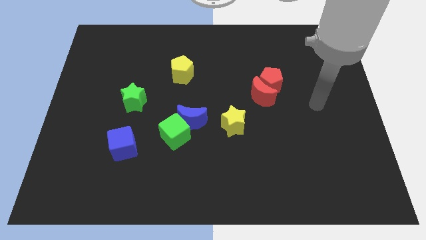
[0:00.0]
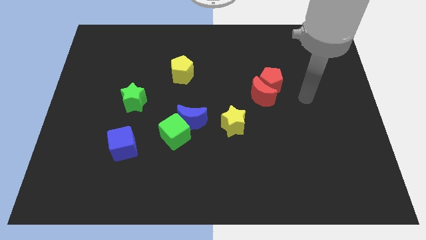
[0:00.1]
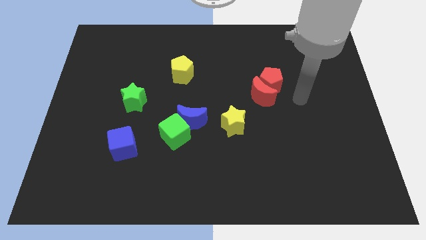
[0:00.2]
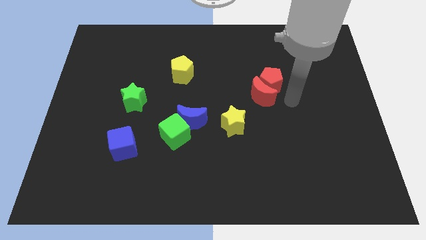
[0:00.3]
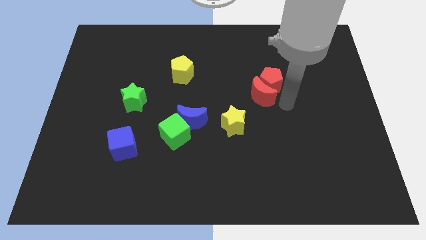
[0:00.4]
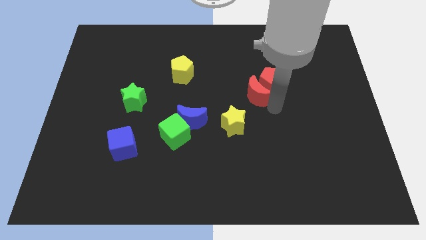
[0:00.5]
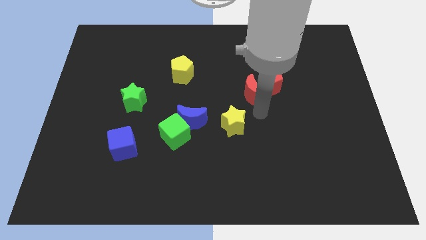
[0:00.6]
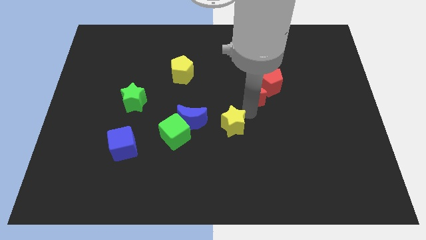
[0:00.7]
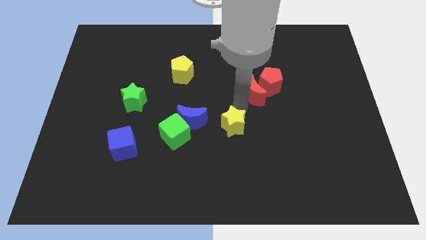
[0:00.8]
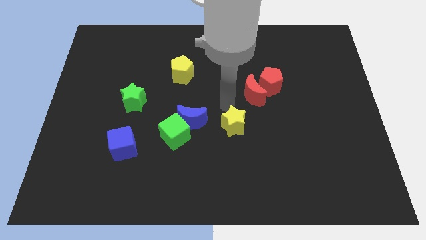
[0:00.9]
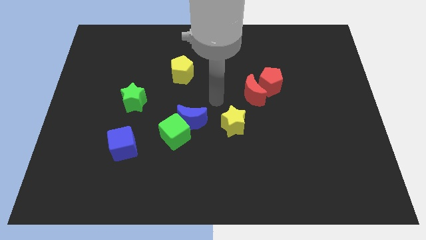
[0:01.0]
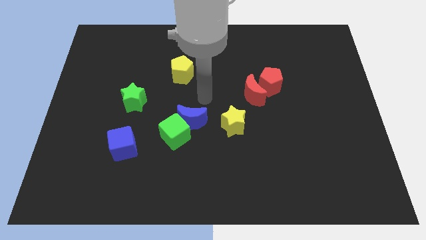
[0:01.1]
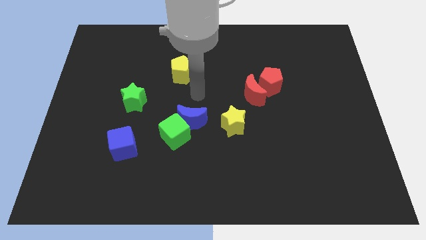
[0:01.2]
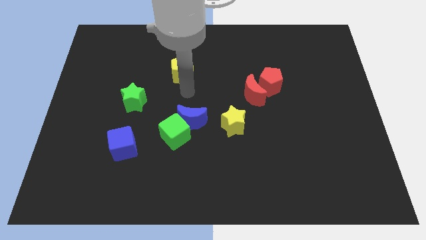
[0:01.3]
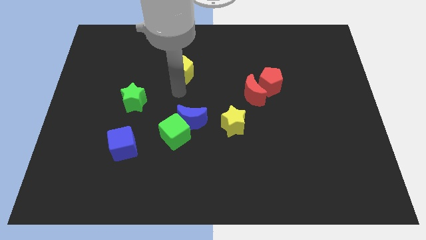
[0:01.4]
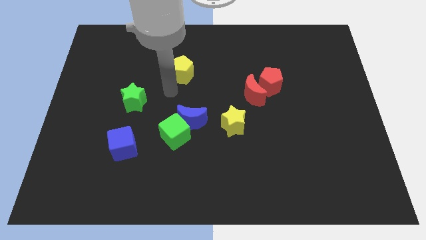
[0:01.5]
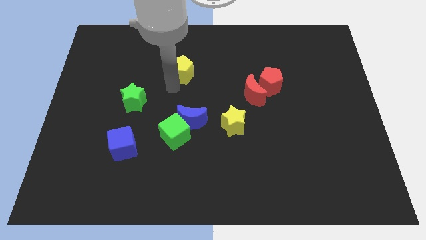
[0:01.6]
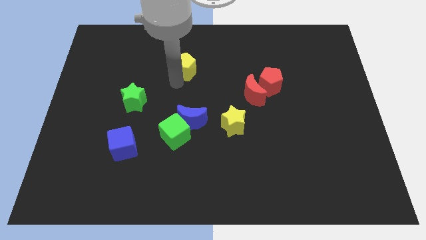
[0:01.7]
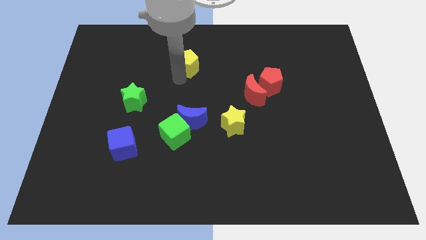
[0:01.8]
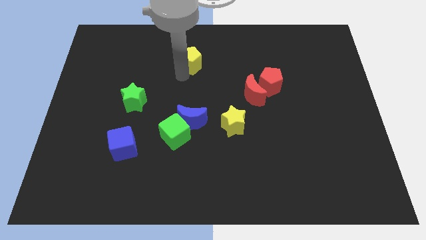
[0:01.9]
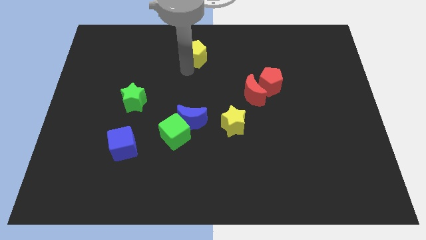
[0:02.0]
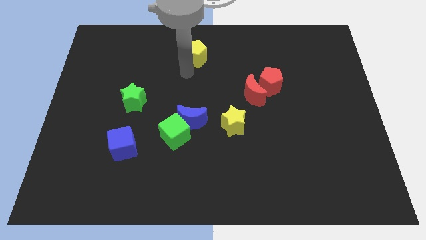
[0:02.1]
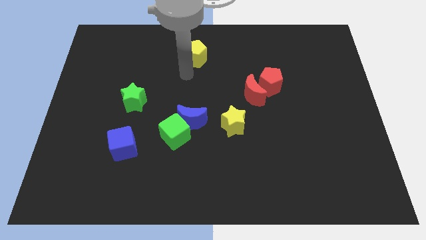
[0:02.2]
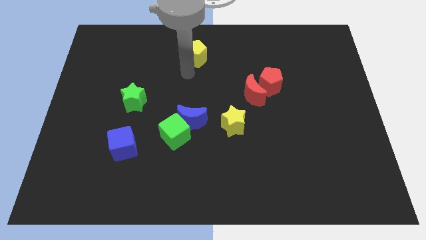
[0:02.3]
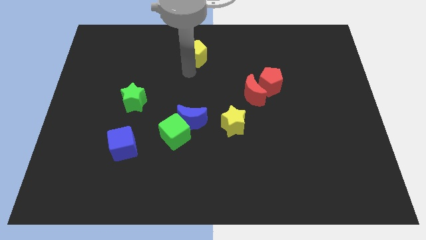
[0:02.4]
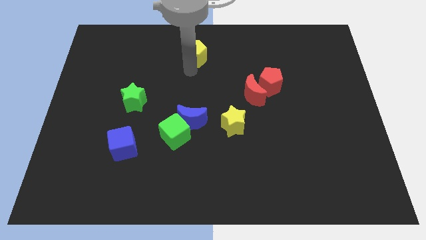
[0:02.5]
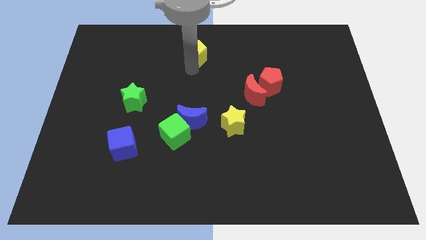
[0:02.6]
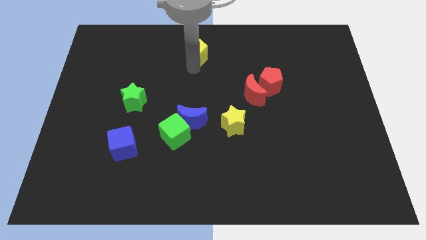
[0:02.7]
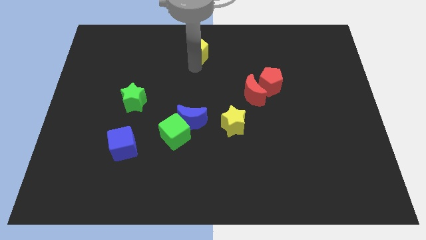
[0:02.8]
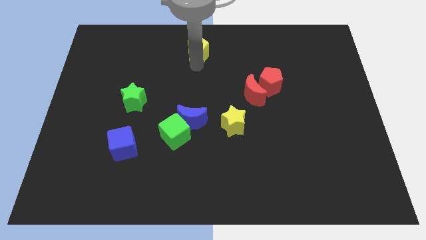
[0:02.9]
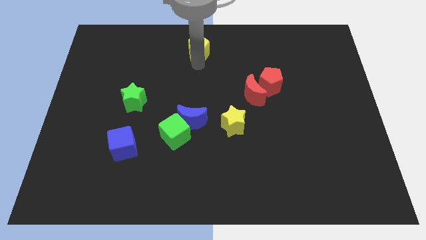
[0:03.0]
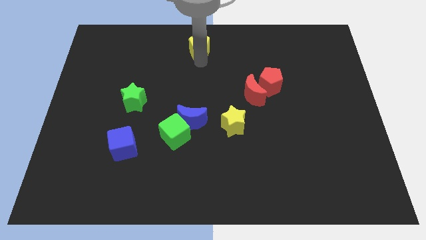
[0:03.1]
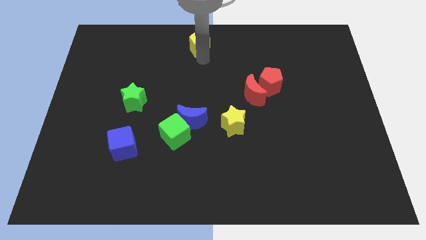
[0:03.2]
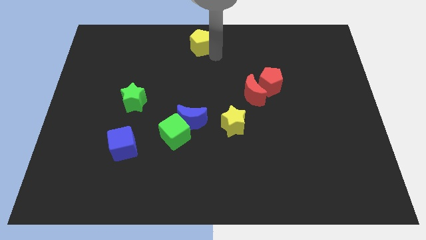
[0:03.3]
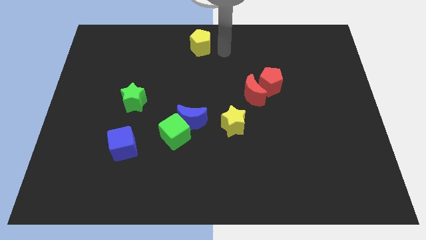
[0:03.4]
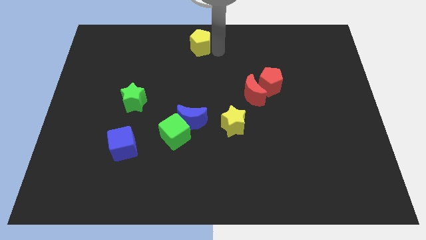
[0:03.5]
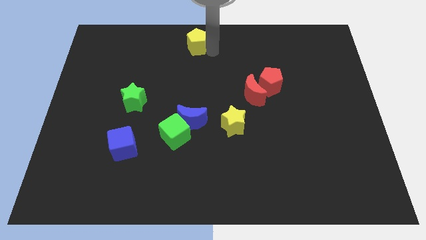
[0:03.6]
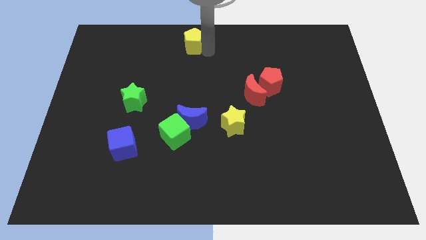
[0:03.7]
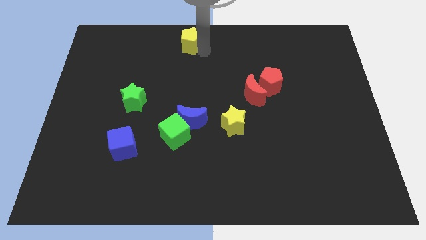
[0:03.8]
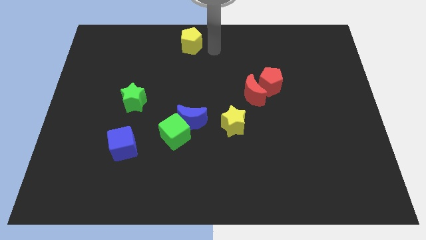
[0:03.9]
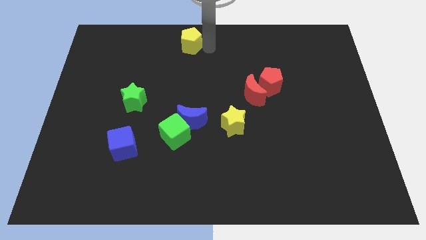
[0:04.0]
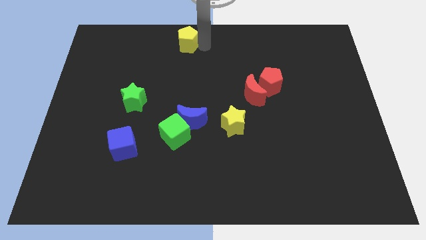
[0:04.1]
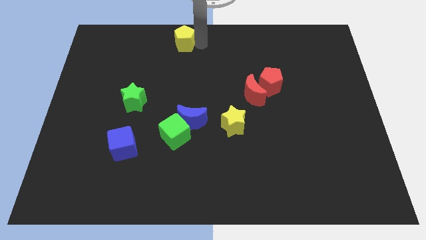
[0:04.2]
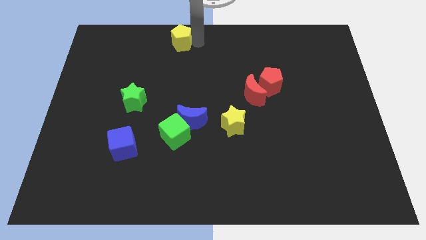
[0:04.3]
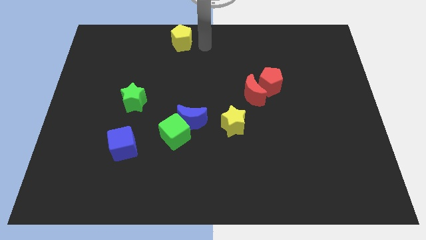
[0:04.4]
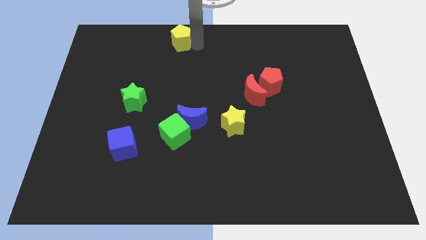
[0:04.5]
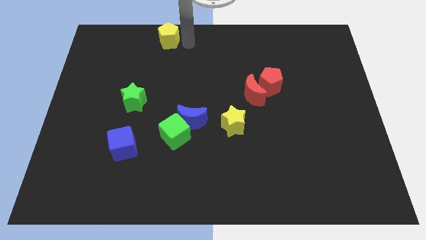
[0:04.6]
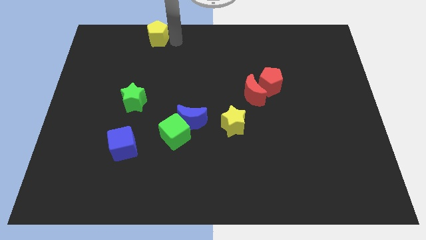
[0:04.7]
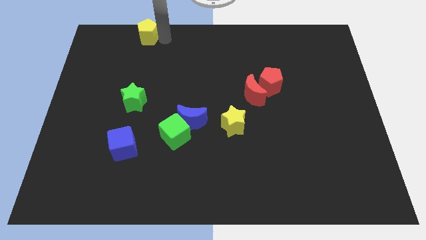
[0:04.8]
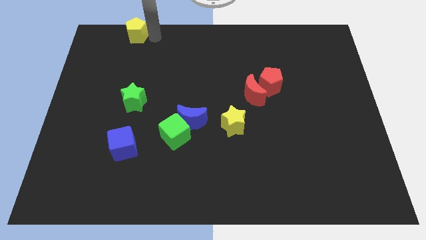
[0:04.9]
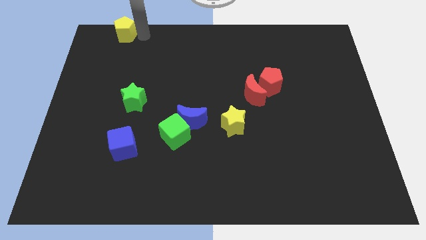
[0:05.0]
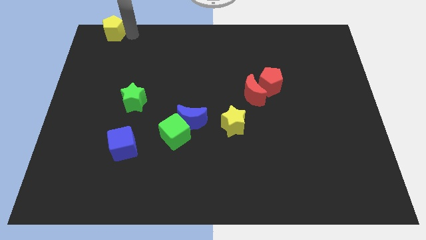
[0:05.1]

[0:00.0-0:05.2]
push the yellow pentagon to the top left

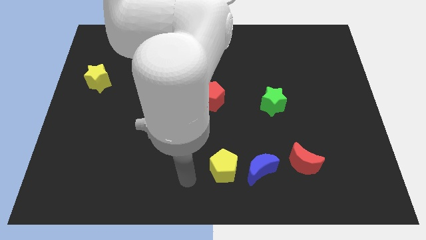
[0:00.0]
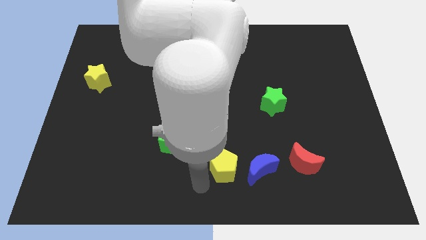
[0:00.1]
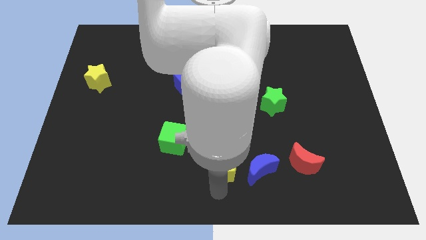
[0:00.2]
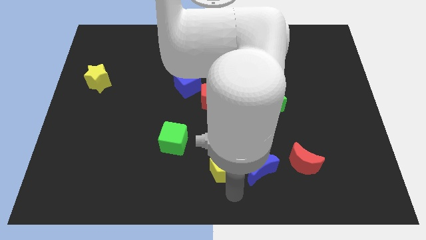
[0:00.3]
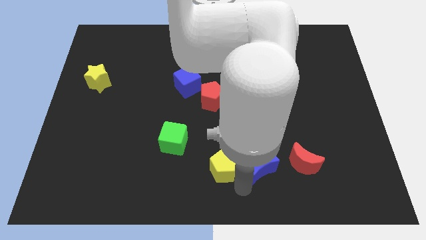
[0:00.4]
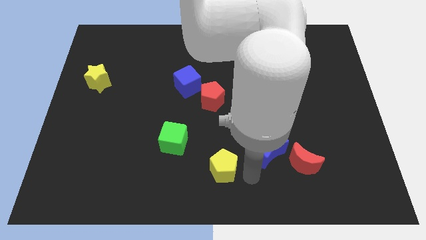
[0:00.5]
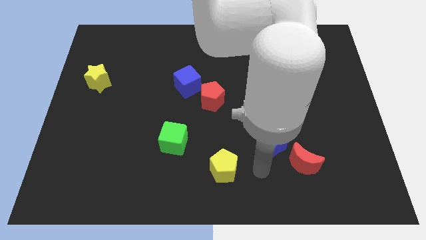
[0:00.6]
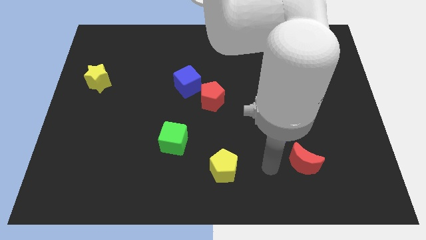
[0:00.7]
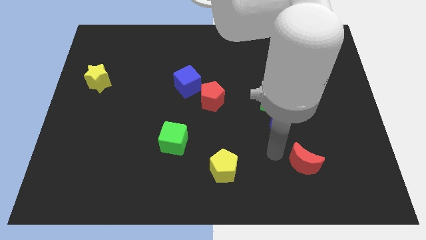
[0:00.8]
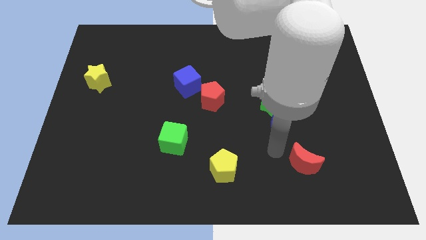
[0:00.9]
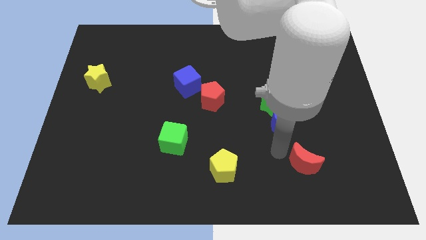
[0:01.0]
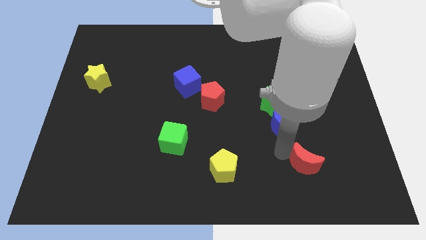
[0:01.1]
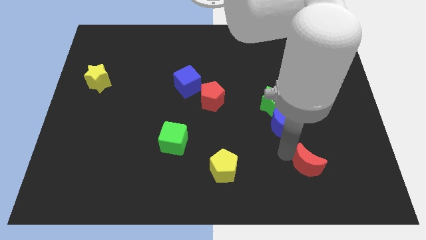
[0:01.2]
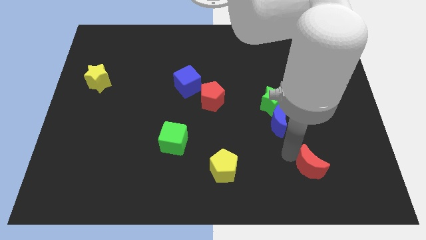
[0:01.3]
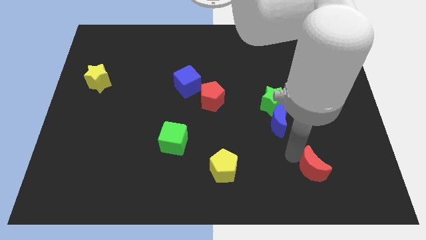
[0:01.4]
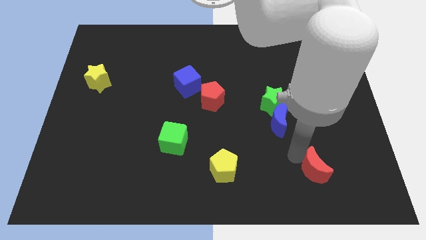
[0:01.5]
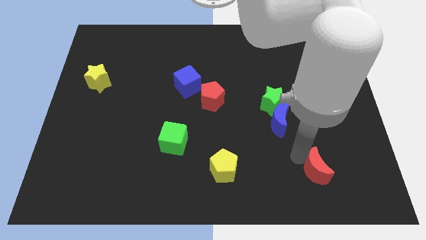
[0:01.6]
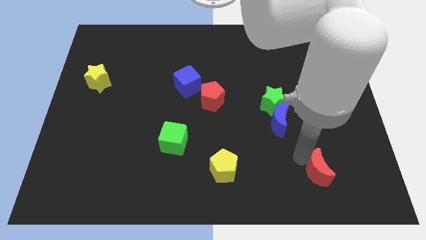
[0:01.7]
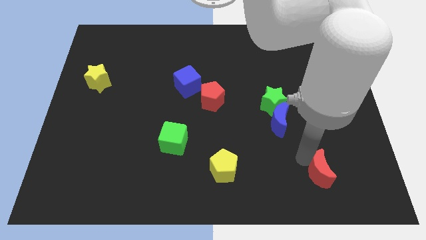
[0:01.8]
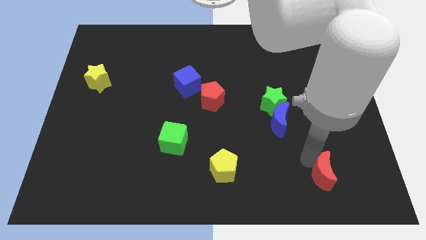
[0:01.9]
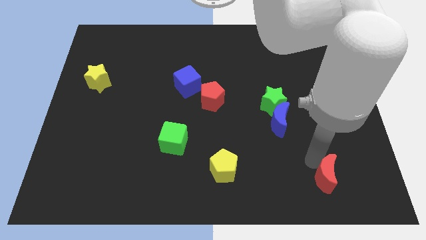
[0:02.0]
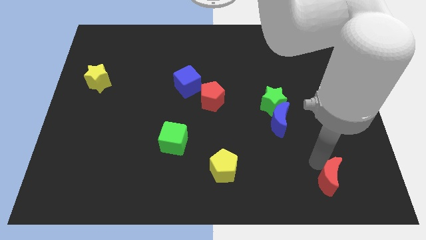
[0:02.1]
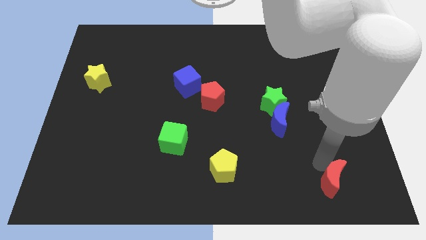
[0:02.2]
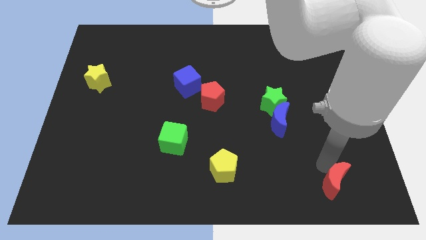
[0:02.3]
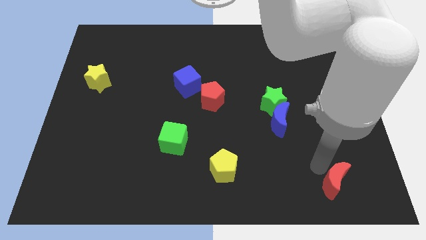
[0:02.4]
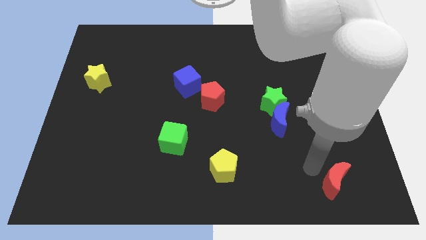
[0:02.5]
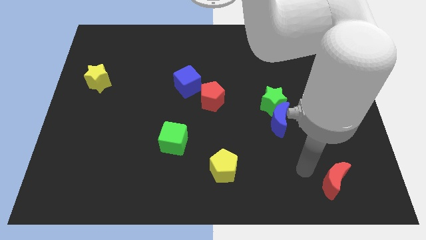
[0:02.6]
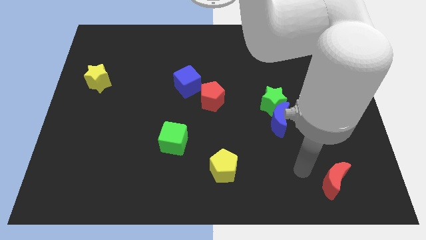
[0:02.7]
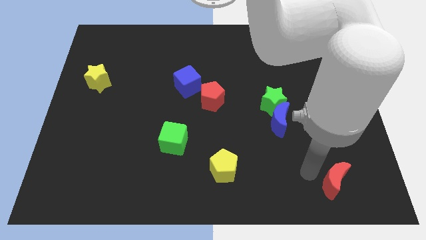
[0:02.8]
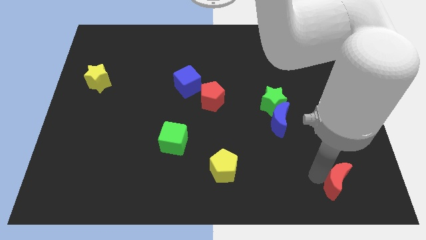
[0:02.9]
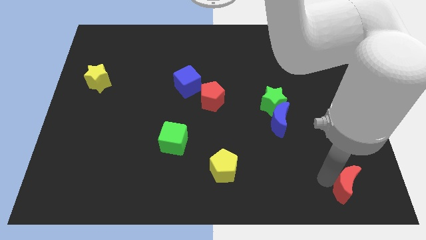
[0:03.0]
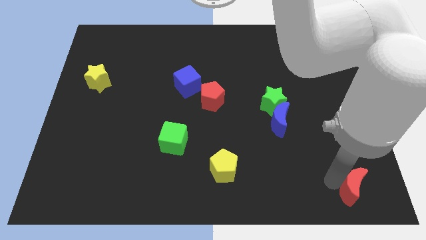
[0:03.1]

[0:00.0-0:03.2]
move the red moon to the lower right corner
